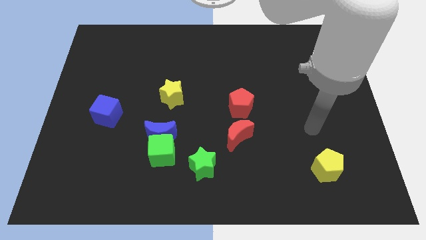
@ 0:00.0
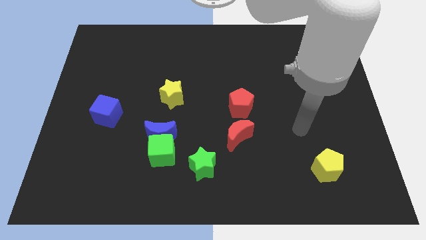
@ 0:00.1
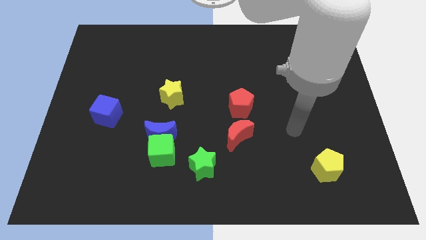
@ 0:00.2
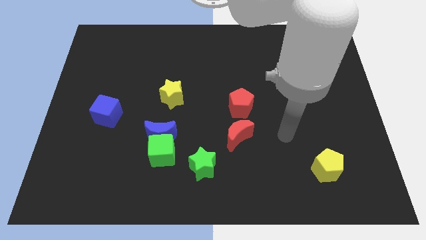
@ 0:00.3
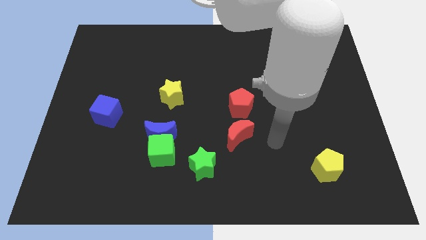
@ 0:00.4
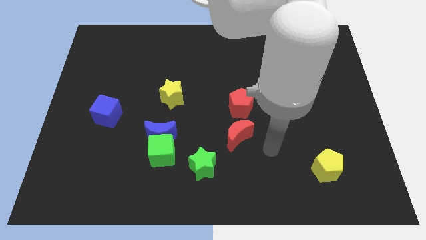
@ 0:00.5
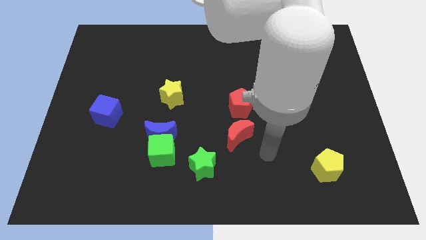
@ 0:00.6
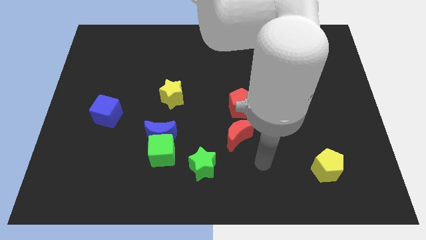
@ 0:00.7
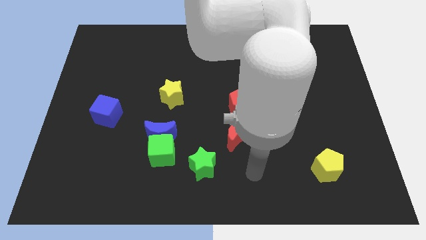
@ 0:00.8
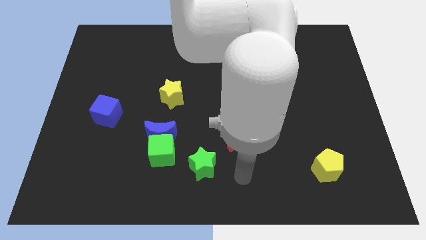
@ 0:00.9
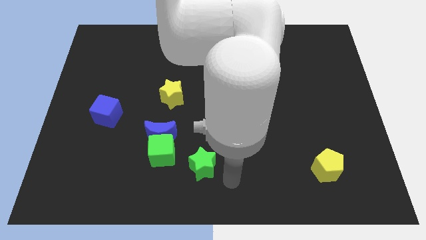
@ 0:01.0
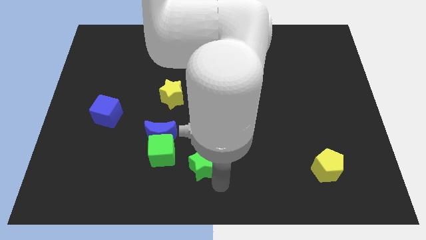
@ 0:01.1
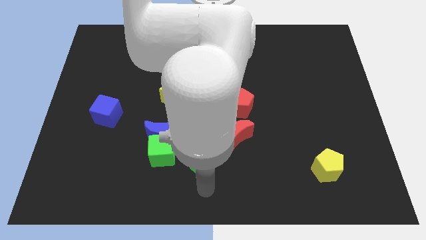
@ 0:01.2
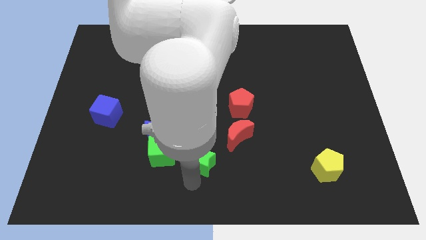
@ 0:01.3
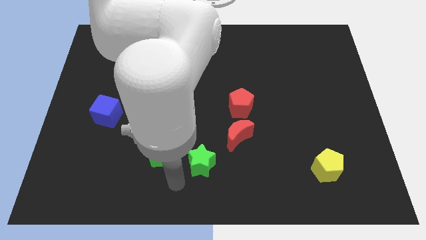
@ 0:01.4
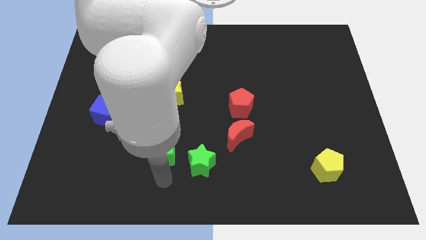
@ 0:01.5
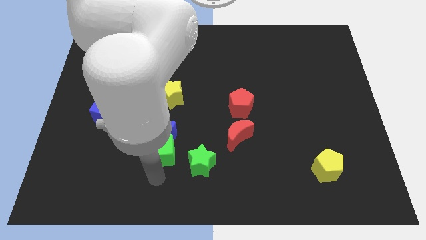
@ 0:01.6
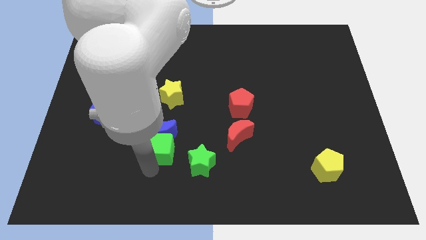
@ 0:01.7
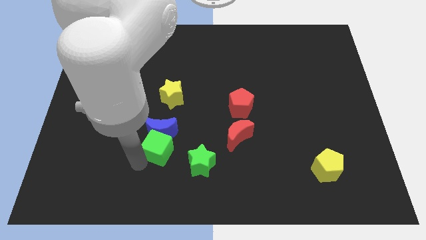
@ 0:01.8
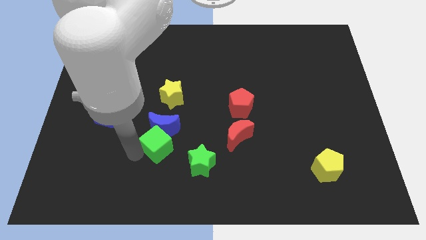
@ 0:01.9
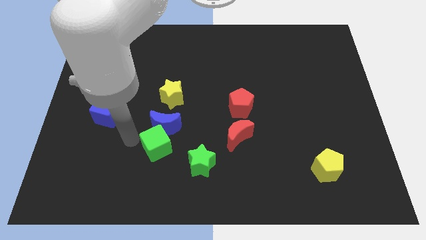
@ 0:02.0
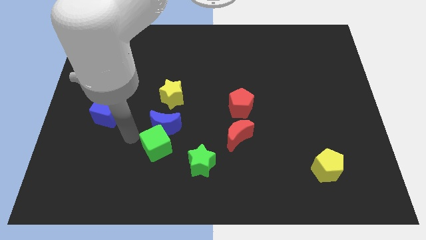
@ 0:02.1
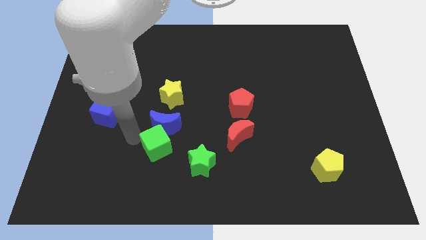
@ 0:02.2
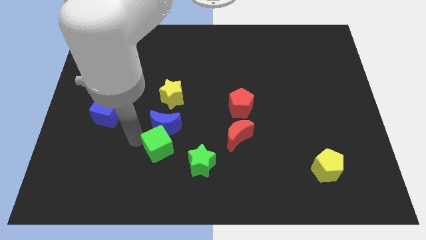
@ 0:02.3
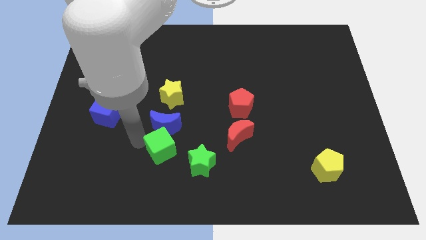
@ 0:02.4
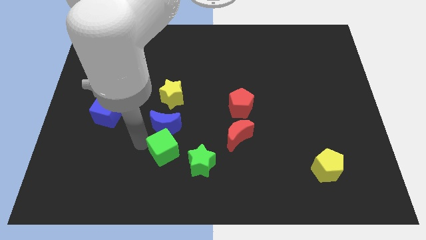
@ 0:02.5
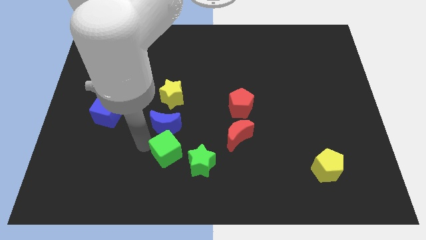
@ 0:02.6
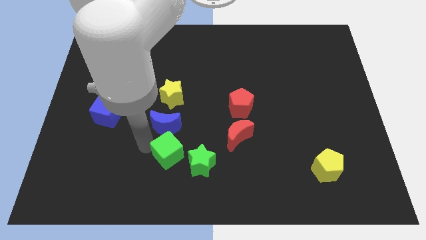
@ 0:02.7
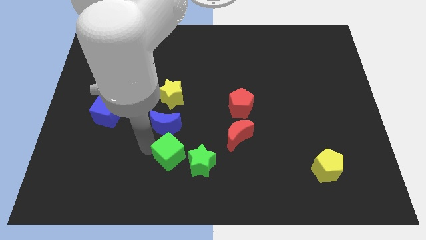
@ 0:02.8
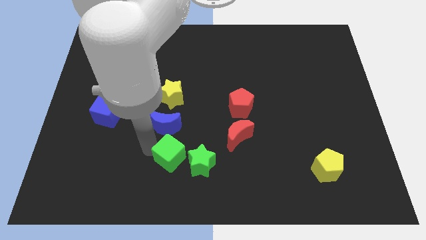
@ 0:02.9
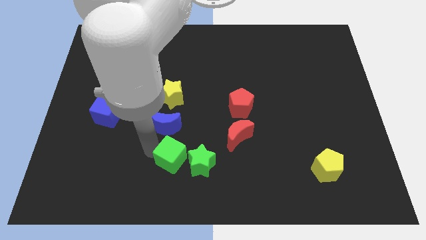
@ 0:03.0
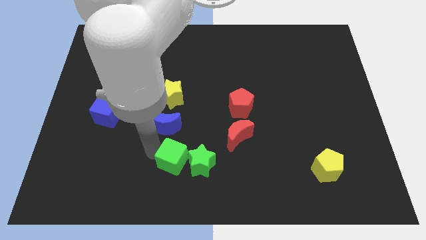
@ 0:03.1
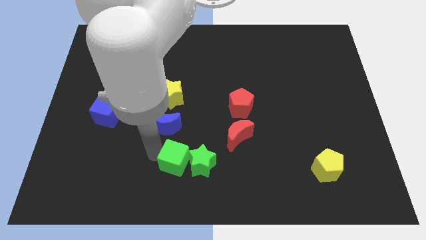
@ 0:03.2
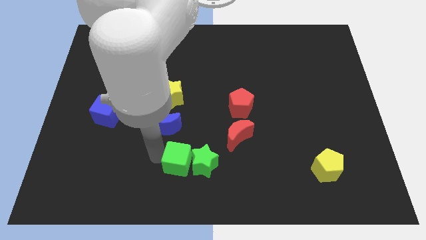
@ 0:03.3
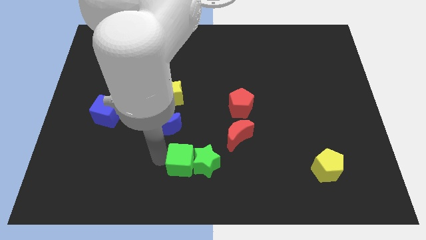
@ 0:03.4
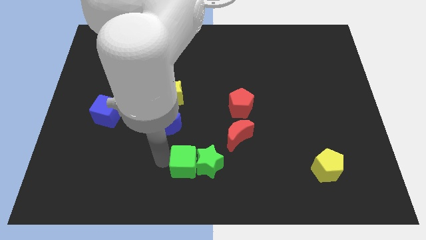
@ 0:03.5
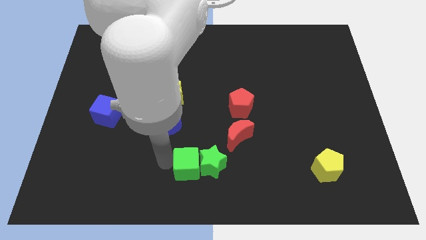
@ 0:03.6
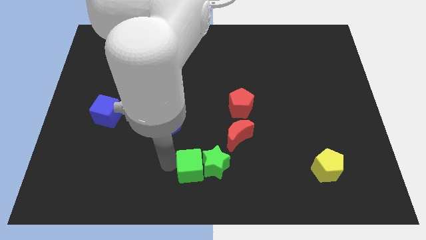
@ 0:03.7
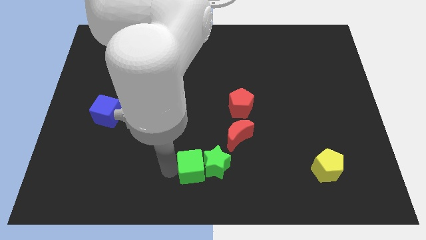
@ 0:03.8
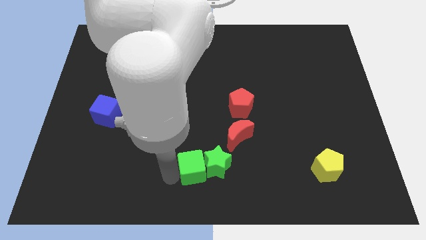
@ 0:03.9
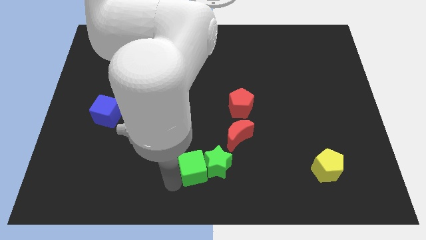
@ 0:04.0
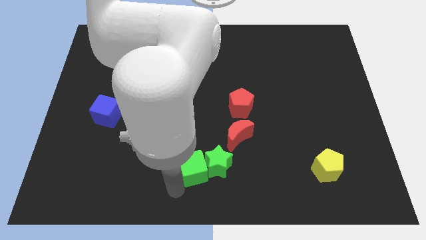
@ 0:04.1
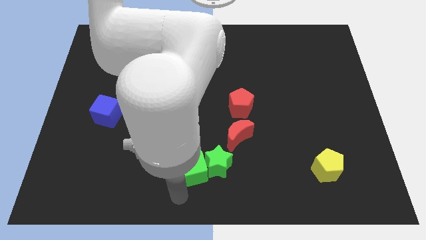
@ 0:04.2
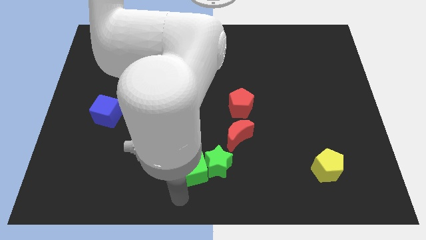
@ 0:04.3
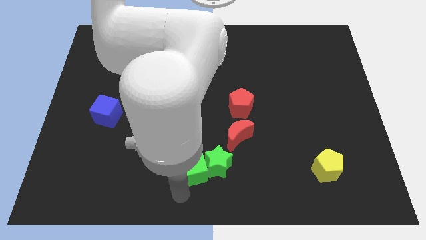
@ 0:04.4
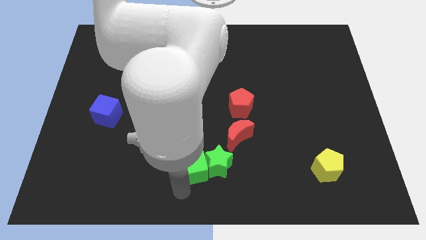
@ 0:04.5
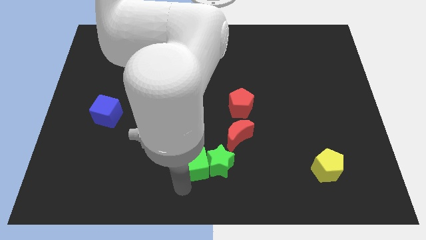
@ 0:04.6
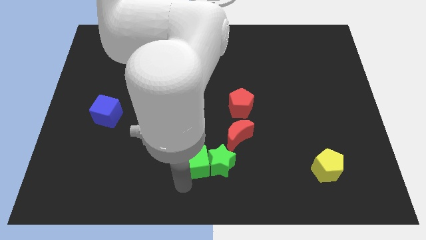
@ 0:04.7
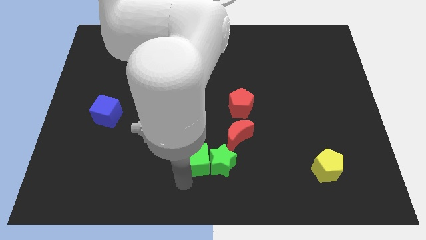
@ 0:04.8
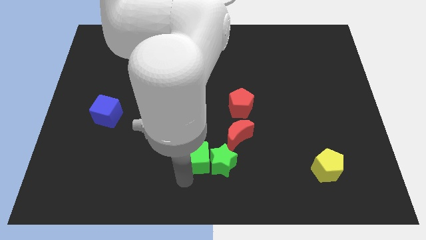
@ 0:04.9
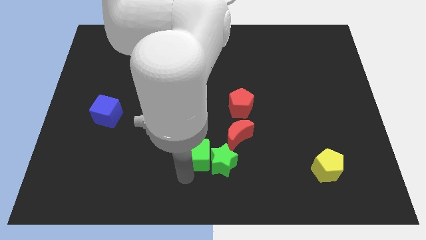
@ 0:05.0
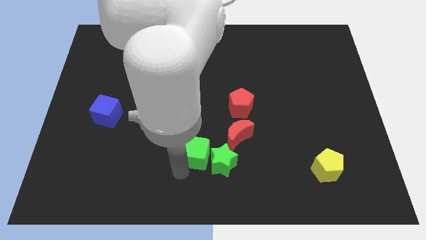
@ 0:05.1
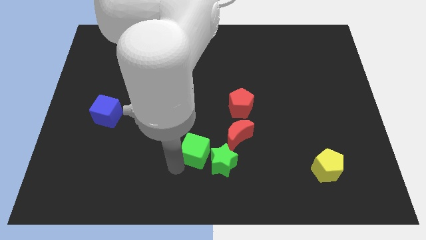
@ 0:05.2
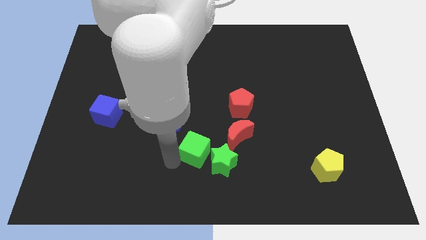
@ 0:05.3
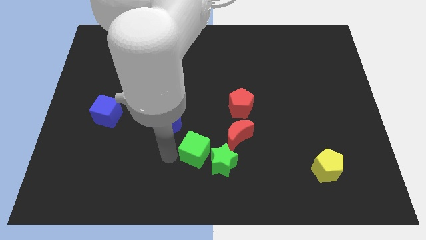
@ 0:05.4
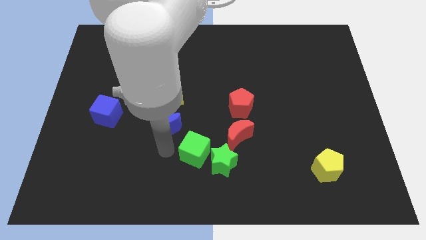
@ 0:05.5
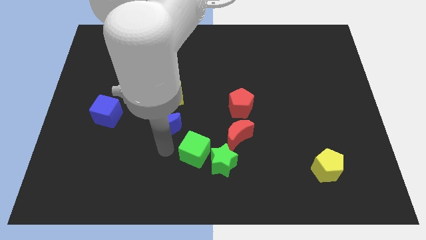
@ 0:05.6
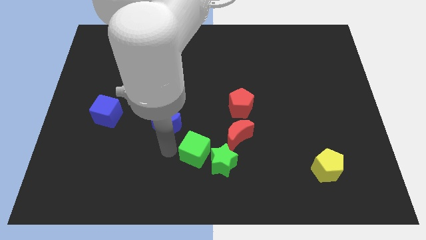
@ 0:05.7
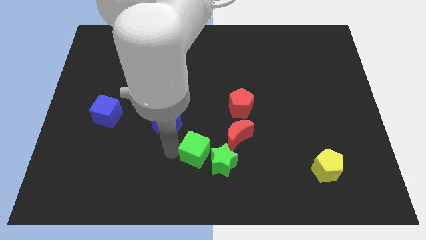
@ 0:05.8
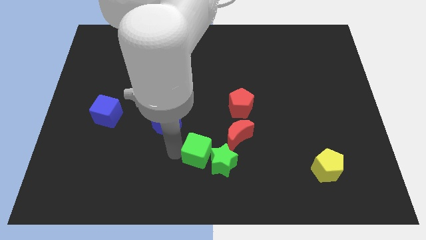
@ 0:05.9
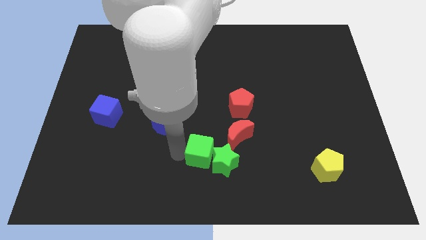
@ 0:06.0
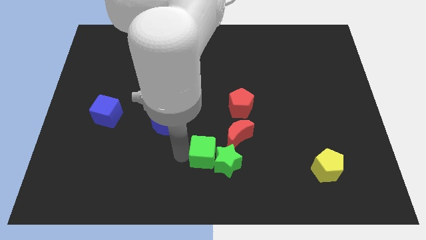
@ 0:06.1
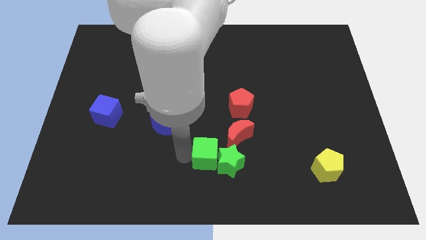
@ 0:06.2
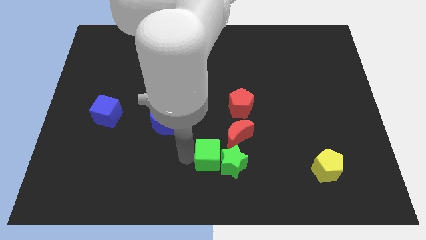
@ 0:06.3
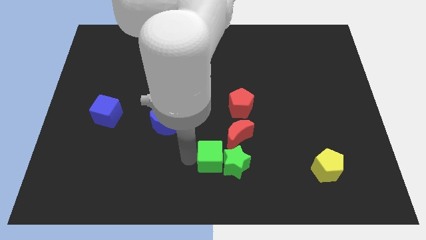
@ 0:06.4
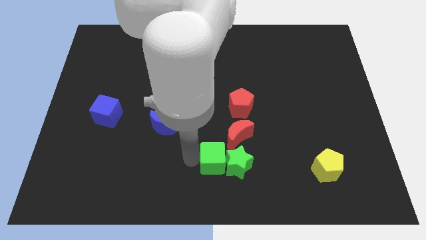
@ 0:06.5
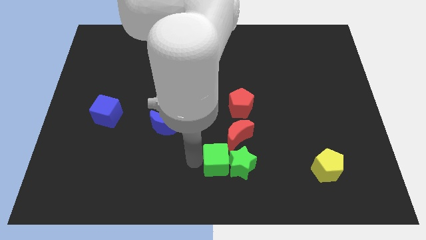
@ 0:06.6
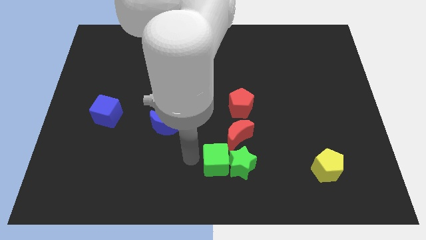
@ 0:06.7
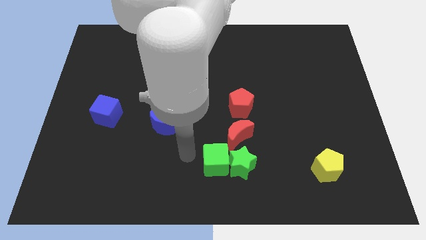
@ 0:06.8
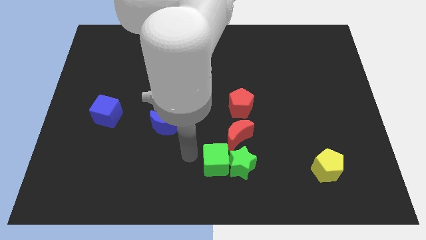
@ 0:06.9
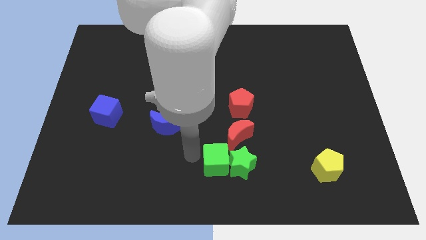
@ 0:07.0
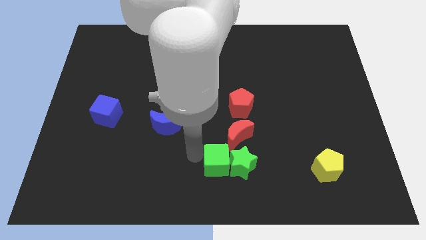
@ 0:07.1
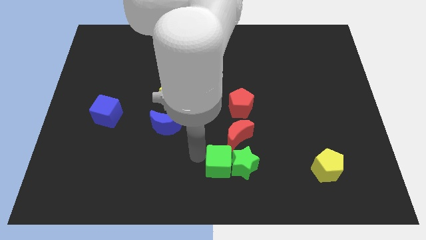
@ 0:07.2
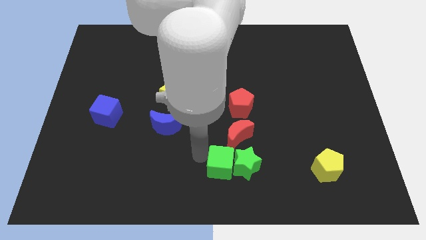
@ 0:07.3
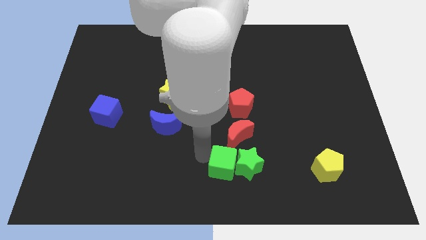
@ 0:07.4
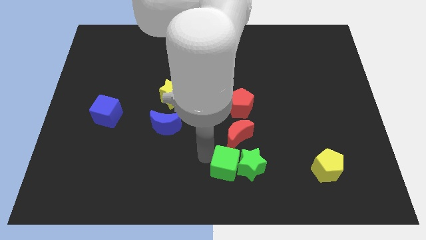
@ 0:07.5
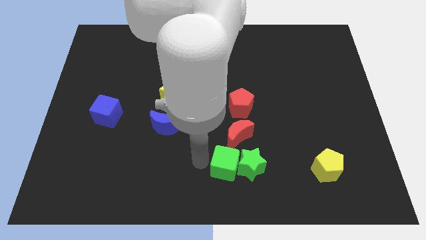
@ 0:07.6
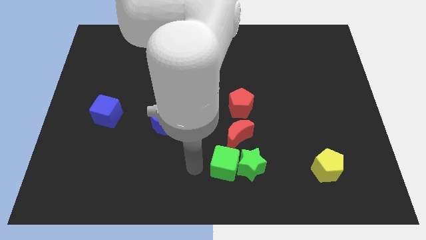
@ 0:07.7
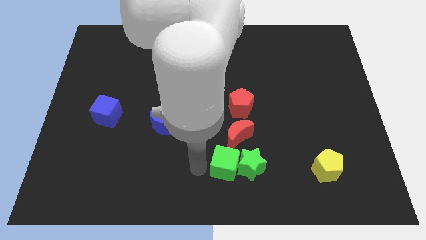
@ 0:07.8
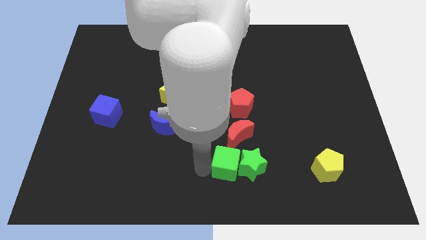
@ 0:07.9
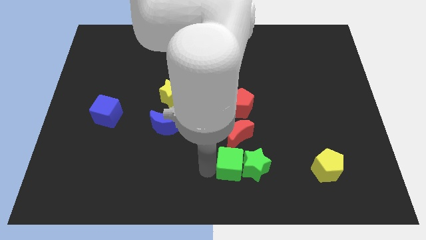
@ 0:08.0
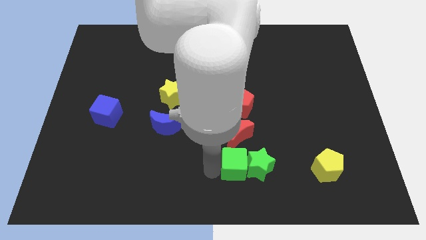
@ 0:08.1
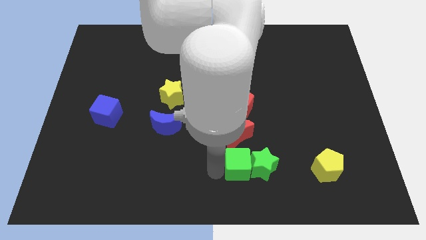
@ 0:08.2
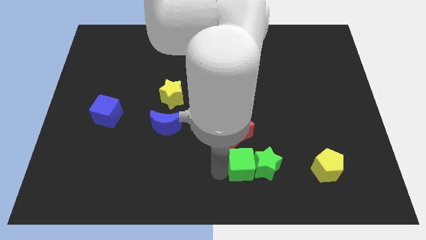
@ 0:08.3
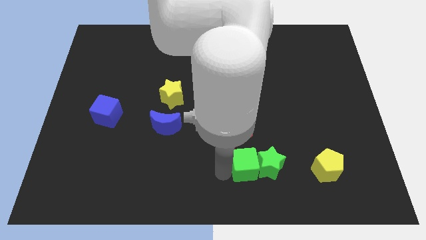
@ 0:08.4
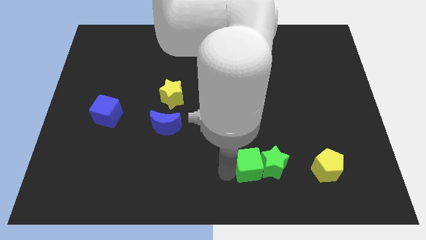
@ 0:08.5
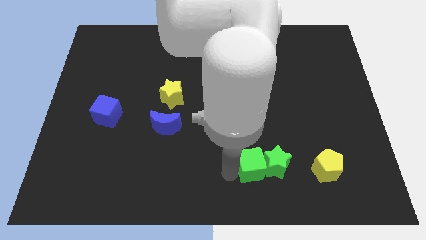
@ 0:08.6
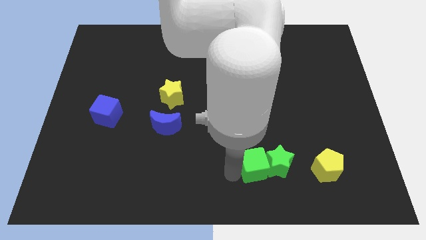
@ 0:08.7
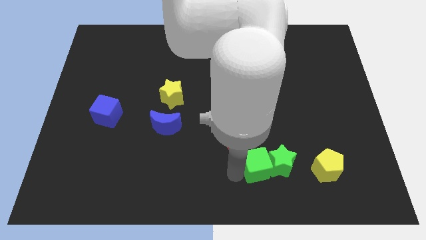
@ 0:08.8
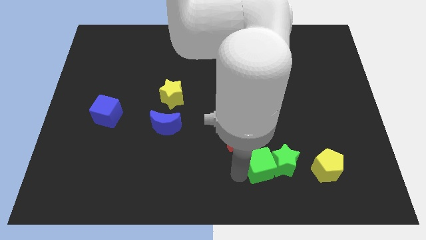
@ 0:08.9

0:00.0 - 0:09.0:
push the green cube right
